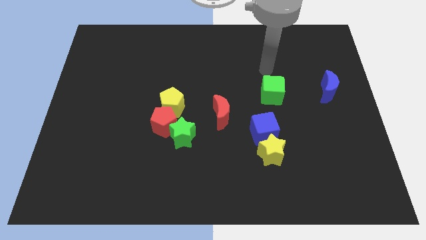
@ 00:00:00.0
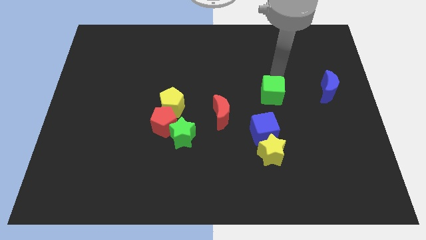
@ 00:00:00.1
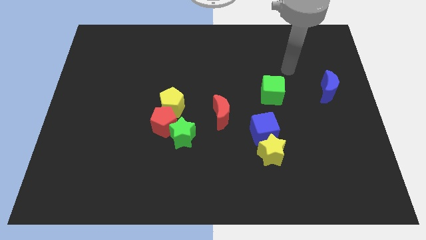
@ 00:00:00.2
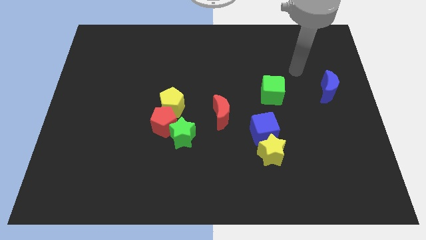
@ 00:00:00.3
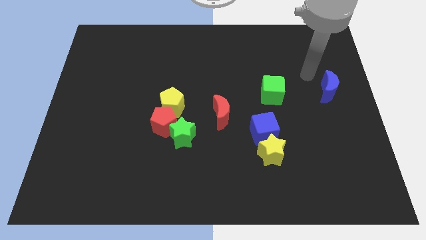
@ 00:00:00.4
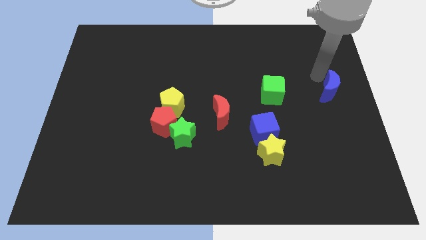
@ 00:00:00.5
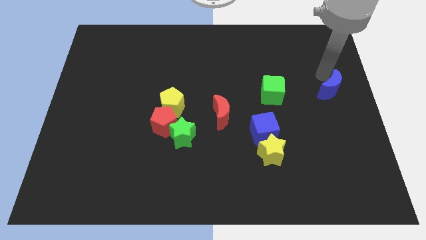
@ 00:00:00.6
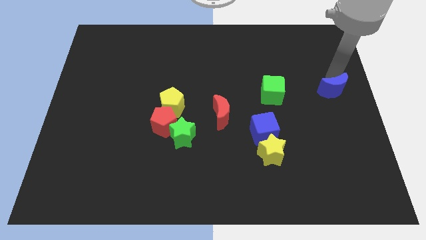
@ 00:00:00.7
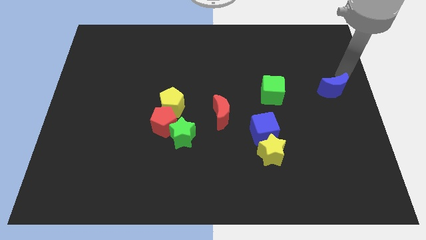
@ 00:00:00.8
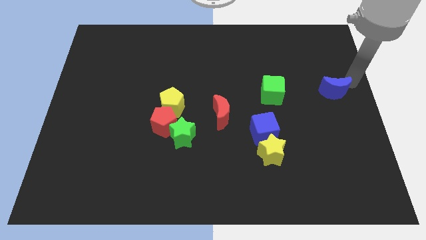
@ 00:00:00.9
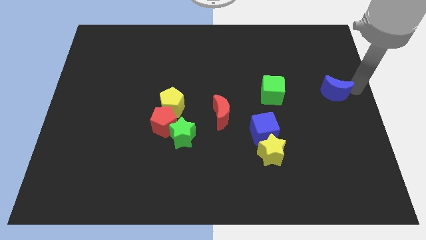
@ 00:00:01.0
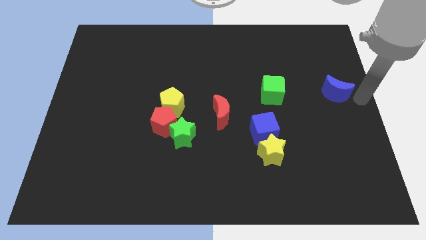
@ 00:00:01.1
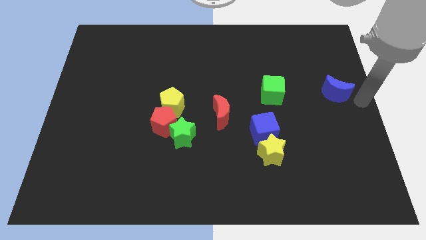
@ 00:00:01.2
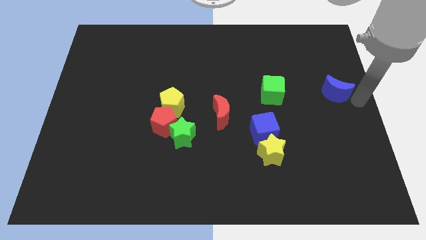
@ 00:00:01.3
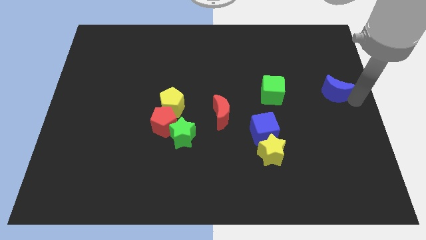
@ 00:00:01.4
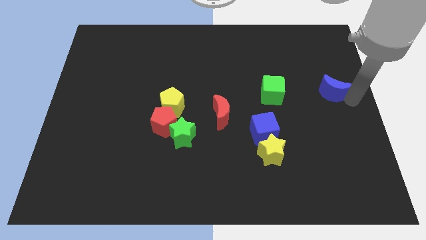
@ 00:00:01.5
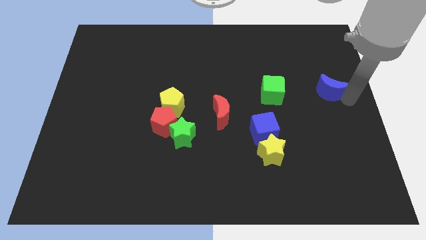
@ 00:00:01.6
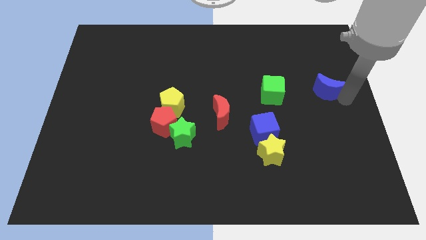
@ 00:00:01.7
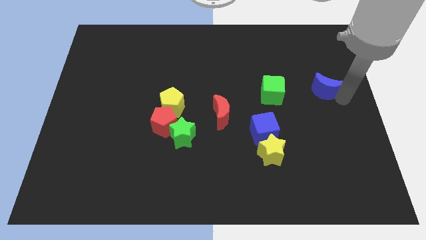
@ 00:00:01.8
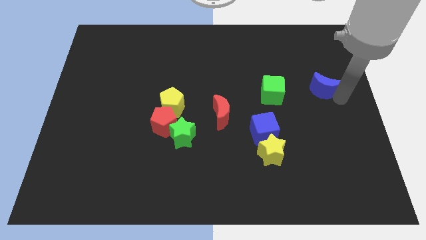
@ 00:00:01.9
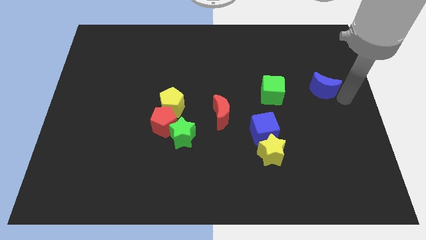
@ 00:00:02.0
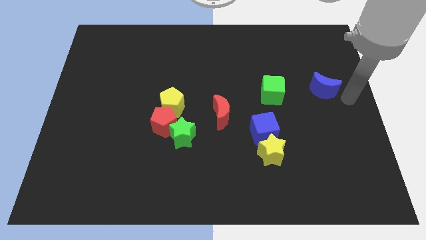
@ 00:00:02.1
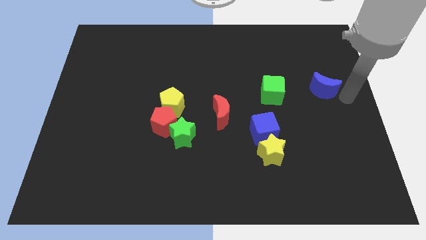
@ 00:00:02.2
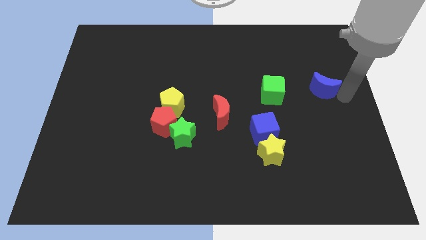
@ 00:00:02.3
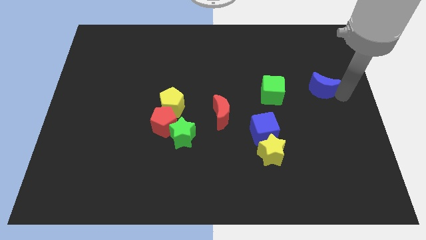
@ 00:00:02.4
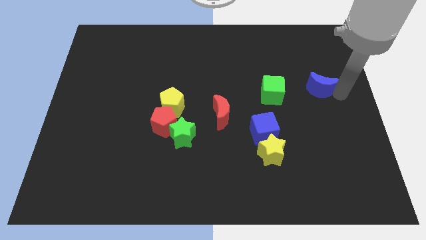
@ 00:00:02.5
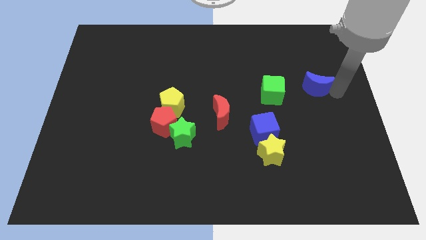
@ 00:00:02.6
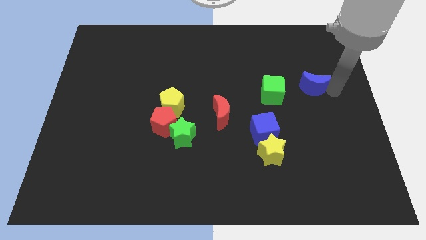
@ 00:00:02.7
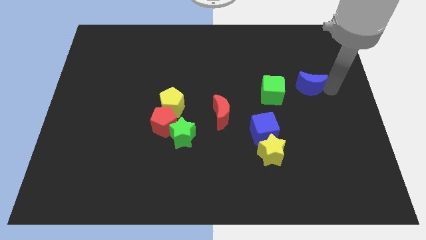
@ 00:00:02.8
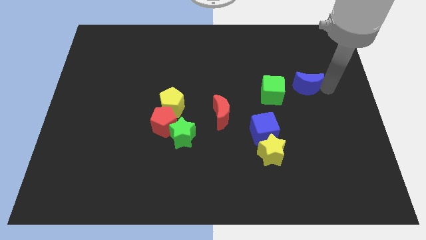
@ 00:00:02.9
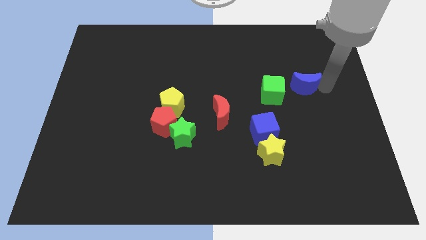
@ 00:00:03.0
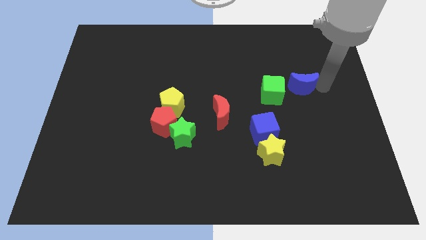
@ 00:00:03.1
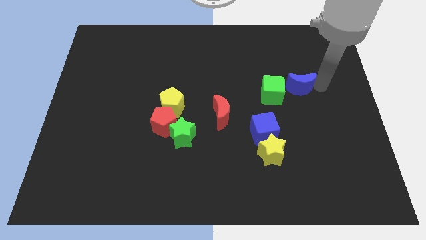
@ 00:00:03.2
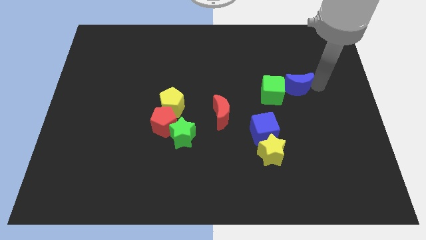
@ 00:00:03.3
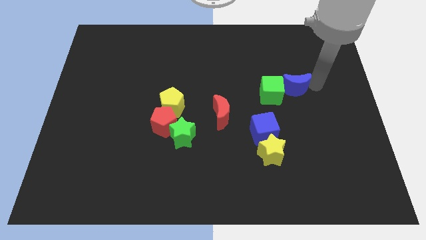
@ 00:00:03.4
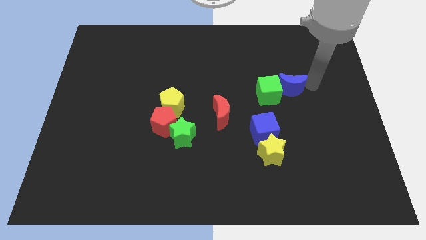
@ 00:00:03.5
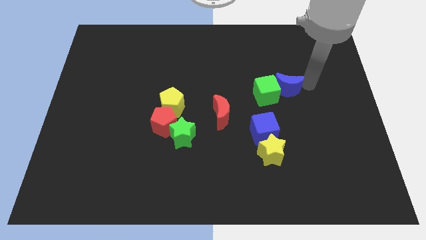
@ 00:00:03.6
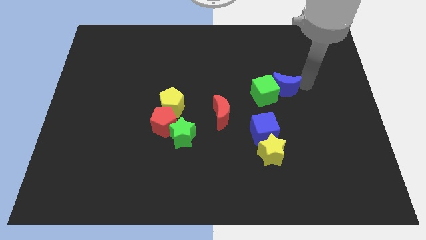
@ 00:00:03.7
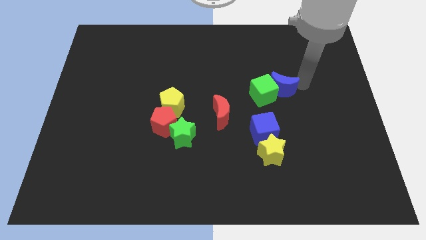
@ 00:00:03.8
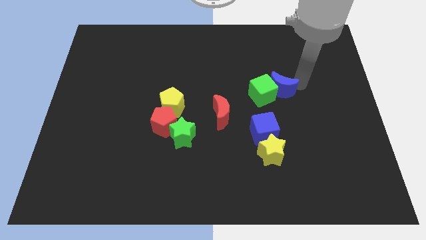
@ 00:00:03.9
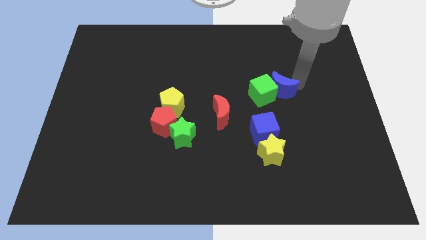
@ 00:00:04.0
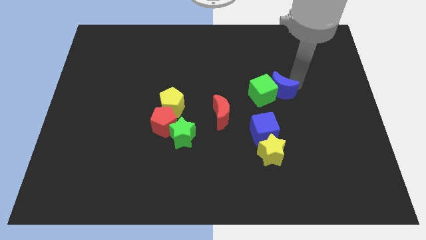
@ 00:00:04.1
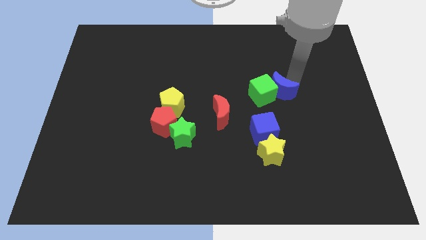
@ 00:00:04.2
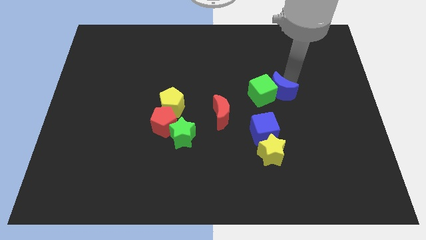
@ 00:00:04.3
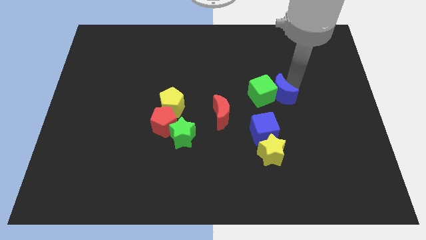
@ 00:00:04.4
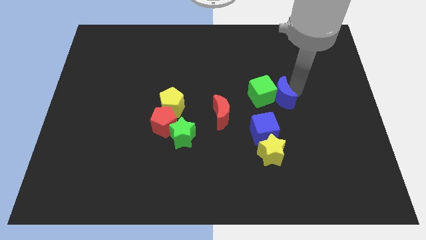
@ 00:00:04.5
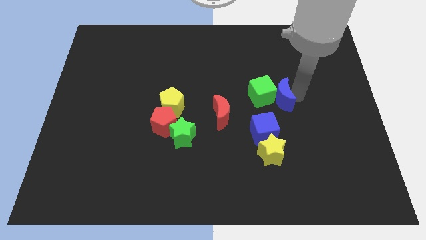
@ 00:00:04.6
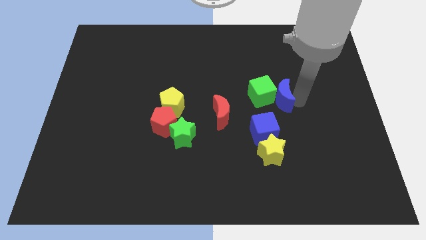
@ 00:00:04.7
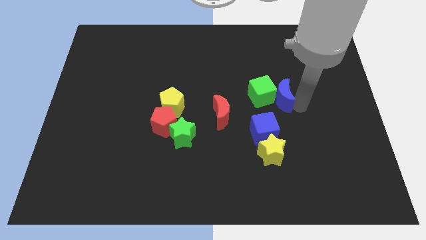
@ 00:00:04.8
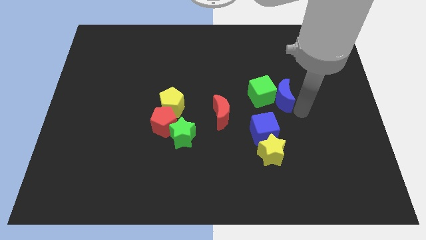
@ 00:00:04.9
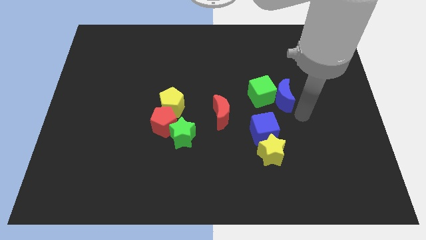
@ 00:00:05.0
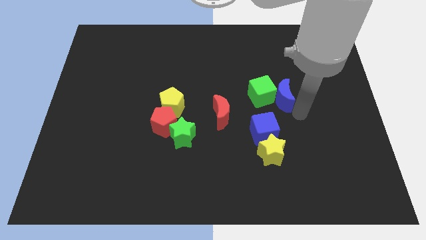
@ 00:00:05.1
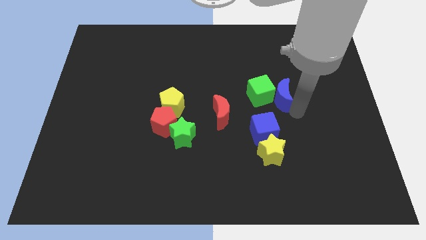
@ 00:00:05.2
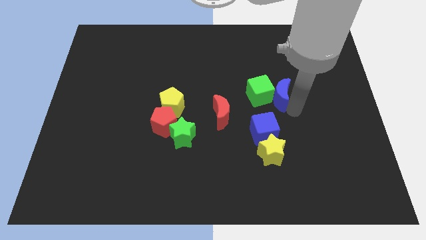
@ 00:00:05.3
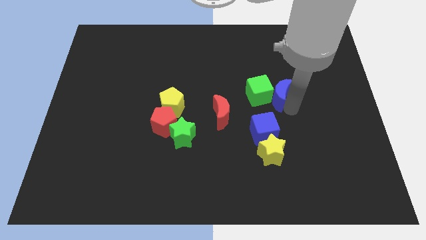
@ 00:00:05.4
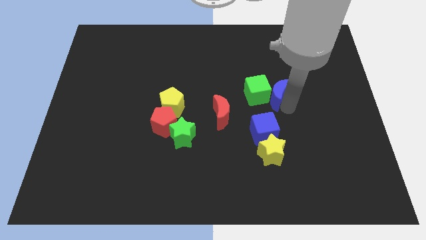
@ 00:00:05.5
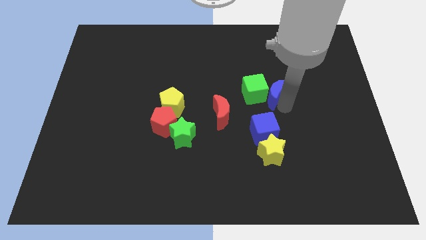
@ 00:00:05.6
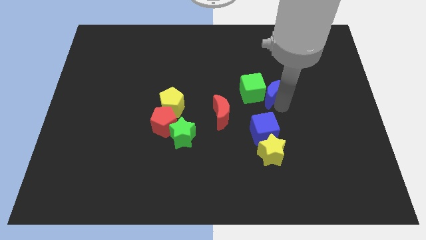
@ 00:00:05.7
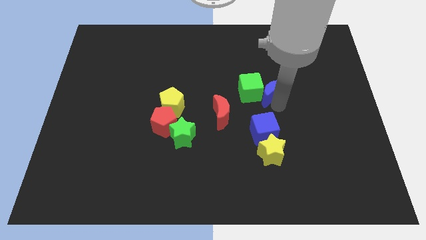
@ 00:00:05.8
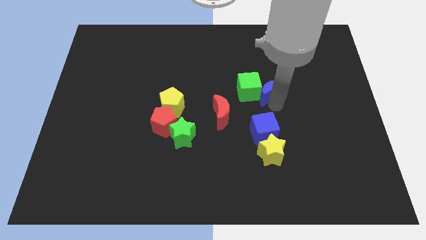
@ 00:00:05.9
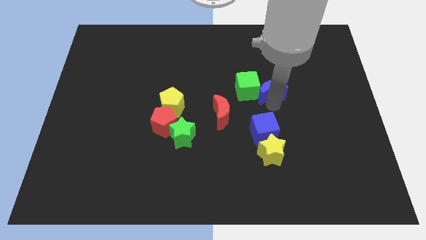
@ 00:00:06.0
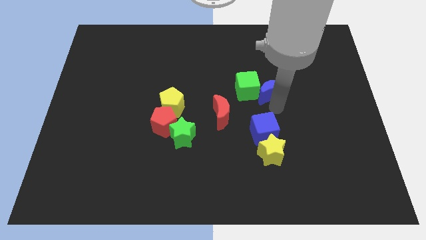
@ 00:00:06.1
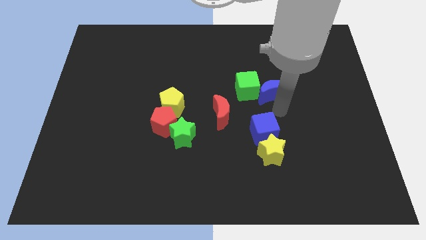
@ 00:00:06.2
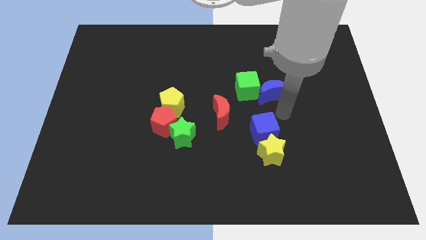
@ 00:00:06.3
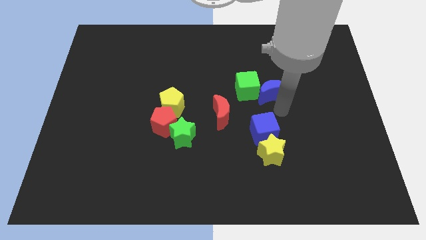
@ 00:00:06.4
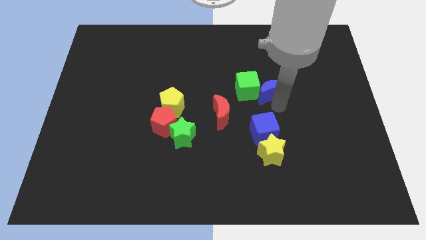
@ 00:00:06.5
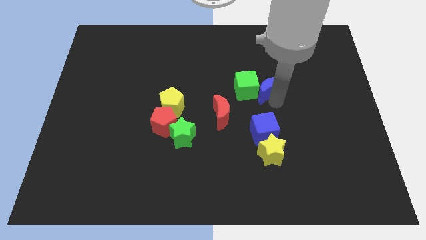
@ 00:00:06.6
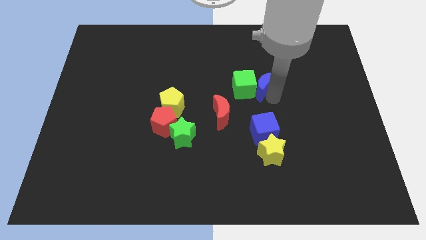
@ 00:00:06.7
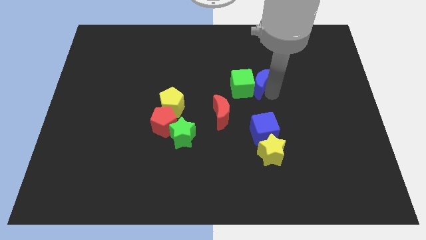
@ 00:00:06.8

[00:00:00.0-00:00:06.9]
slide the blue moon to the center
